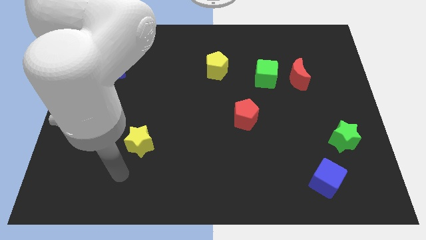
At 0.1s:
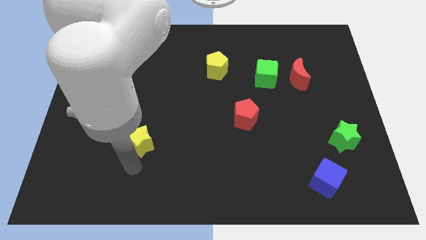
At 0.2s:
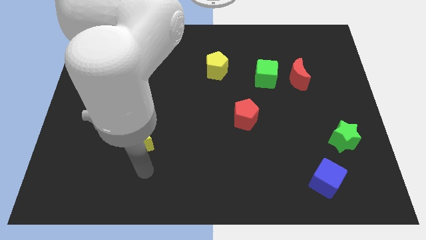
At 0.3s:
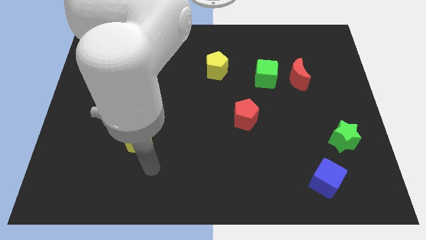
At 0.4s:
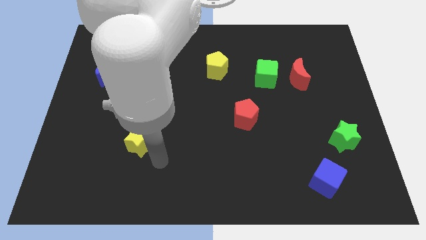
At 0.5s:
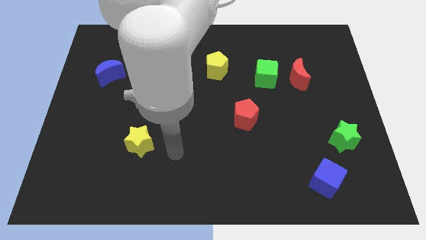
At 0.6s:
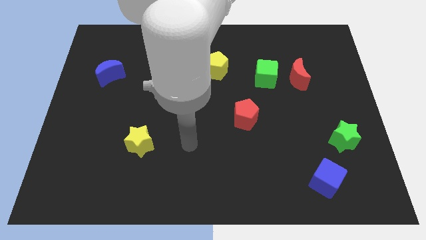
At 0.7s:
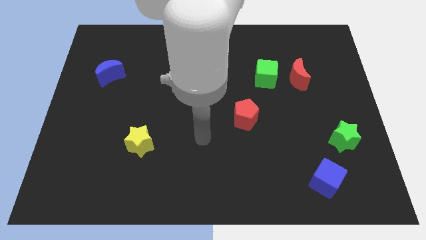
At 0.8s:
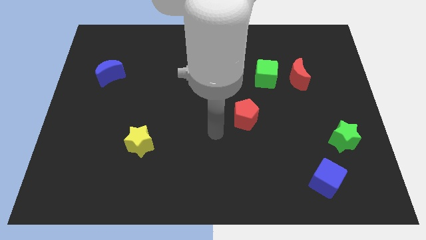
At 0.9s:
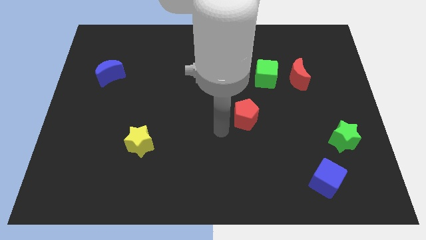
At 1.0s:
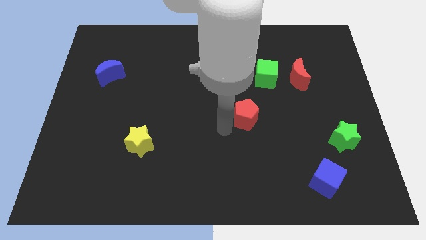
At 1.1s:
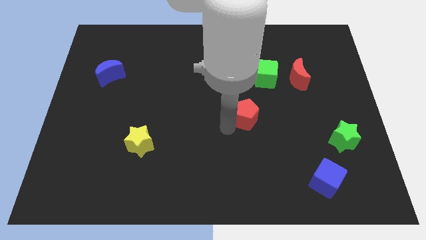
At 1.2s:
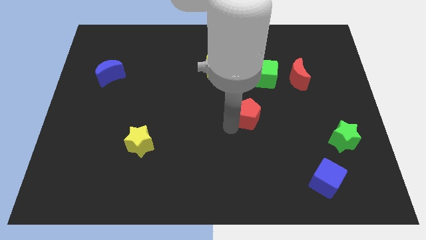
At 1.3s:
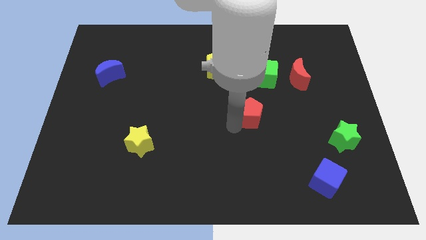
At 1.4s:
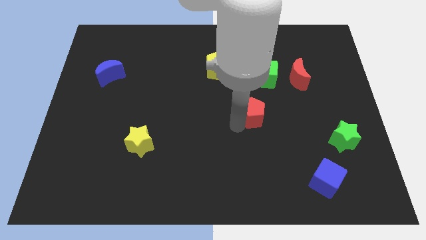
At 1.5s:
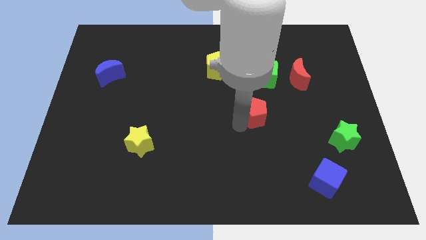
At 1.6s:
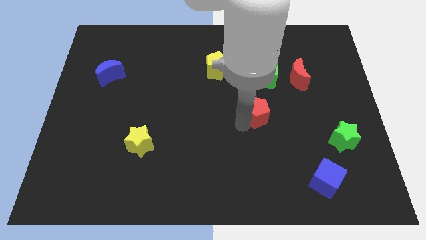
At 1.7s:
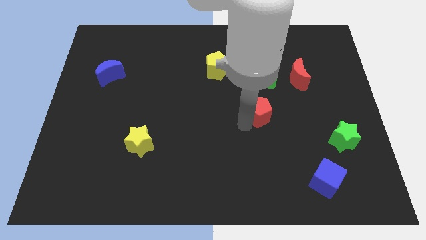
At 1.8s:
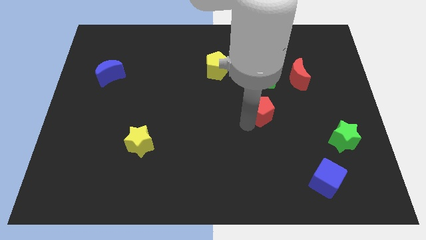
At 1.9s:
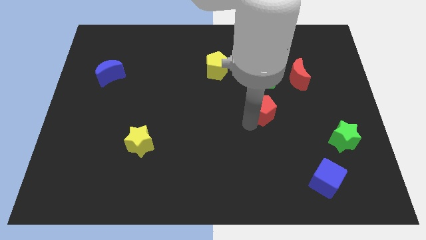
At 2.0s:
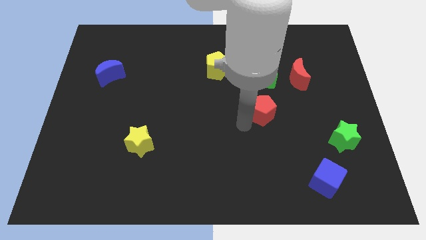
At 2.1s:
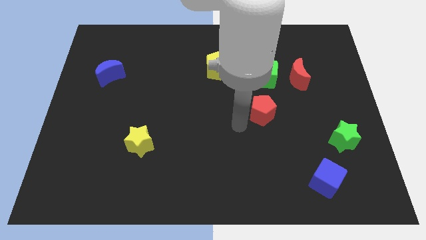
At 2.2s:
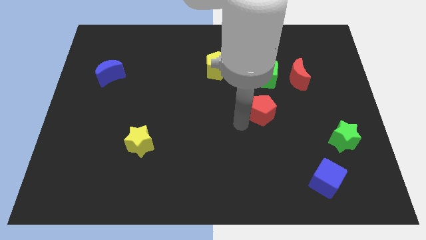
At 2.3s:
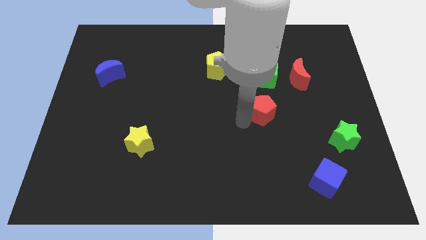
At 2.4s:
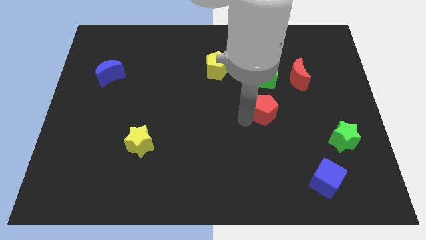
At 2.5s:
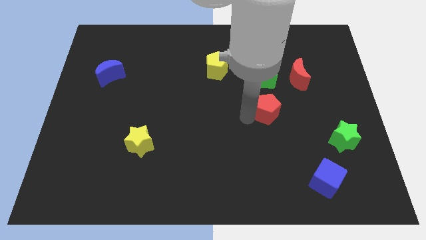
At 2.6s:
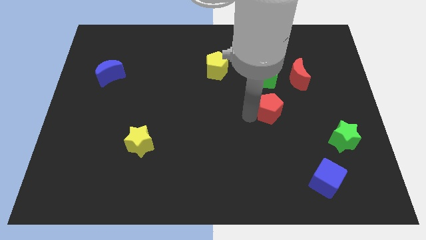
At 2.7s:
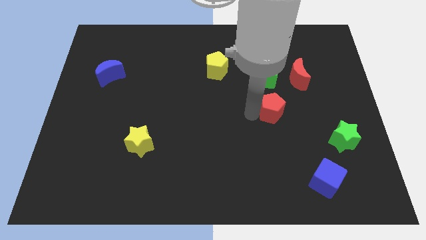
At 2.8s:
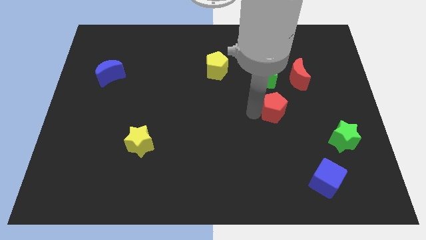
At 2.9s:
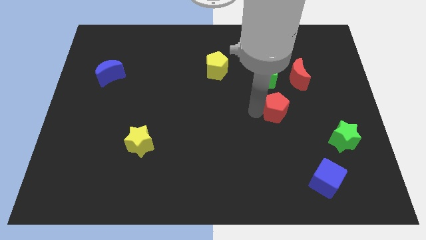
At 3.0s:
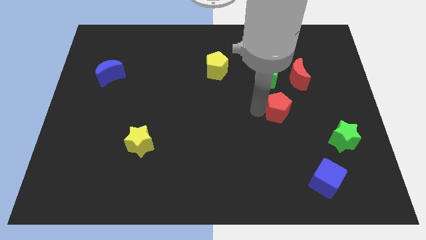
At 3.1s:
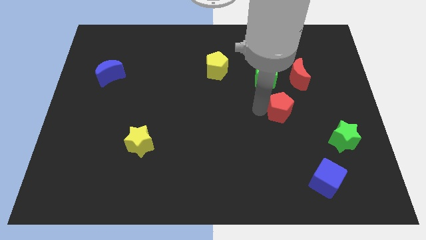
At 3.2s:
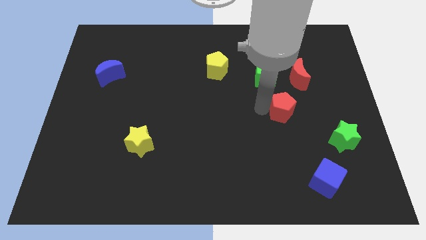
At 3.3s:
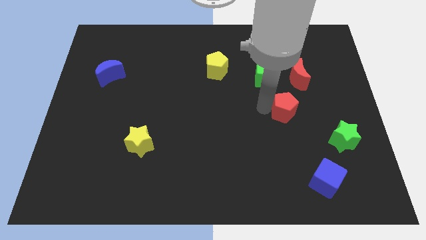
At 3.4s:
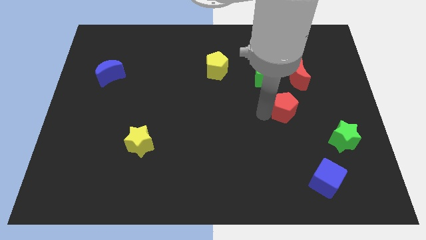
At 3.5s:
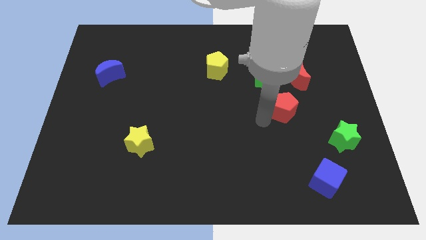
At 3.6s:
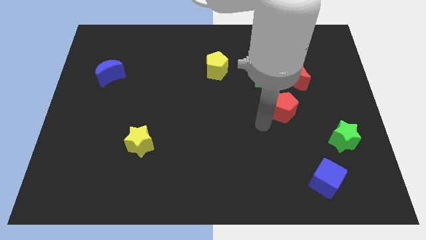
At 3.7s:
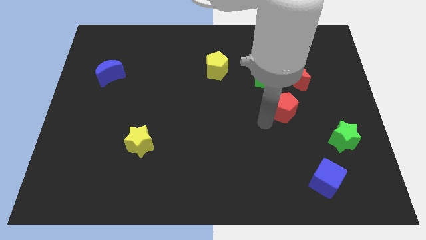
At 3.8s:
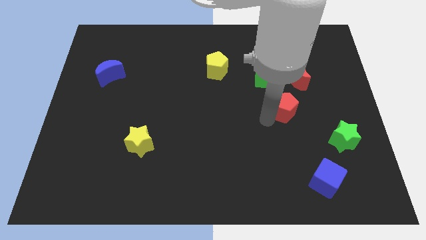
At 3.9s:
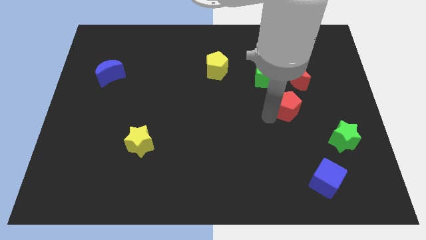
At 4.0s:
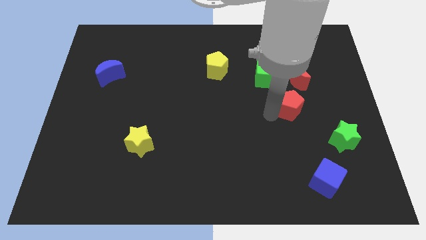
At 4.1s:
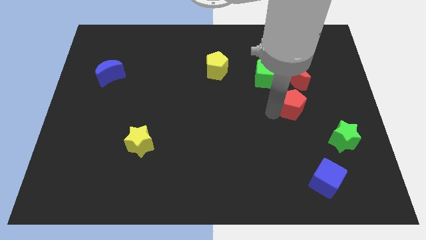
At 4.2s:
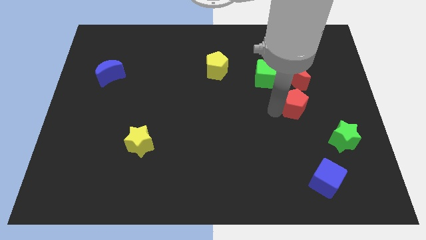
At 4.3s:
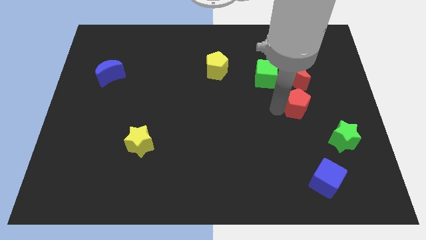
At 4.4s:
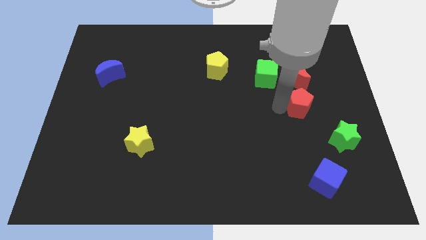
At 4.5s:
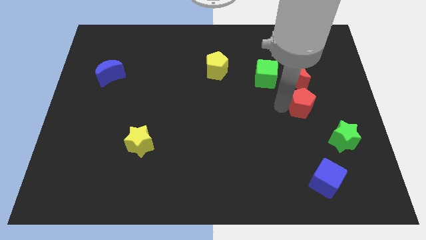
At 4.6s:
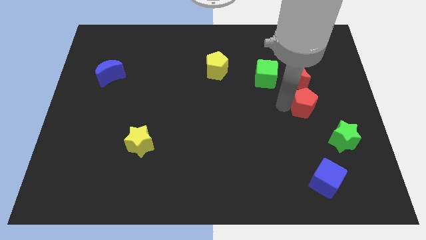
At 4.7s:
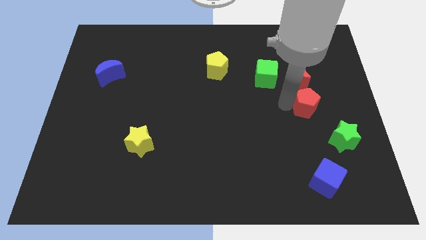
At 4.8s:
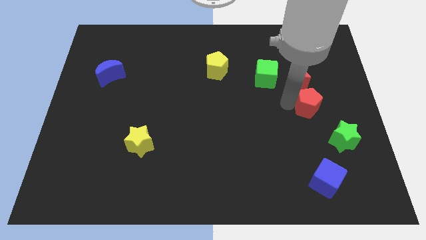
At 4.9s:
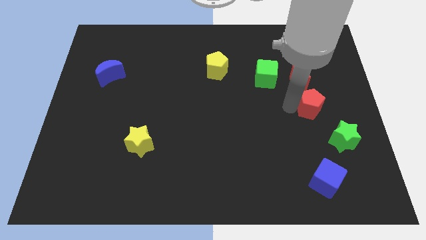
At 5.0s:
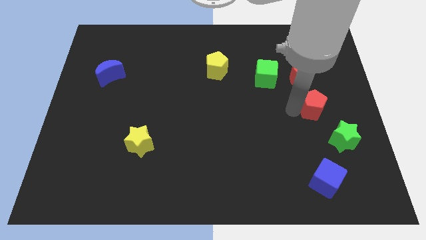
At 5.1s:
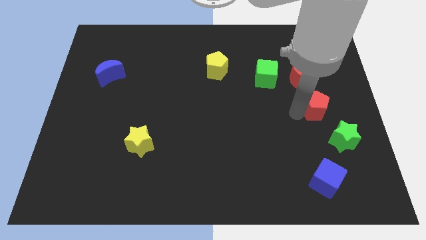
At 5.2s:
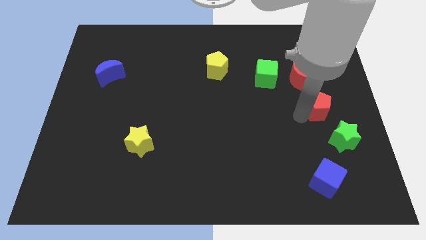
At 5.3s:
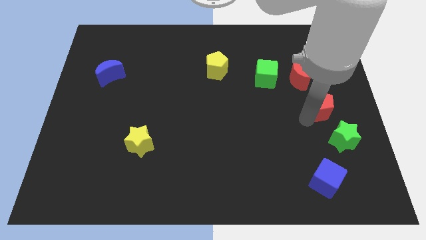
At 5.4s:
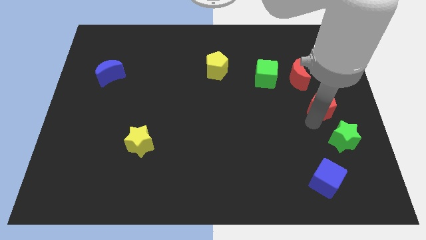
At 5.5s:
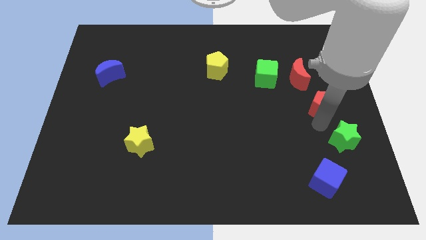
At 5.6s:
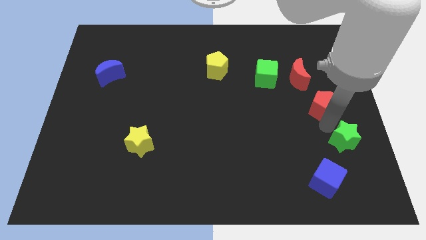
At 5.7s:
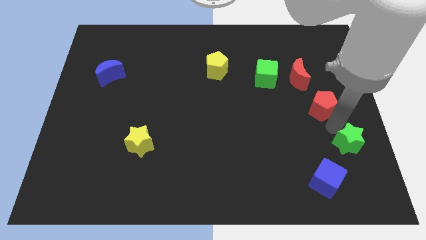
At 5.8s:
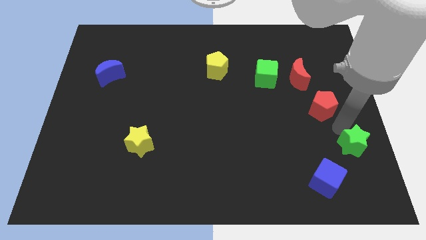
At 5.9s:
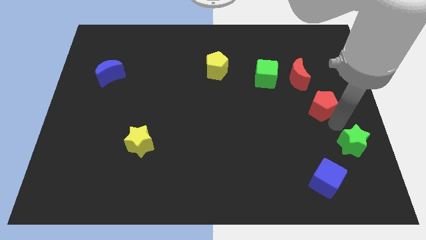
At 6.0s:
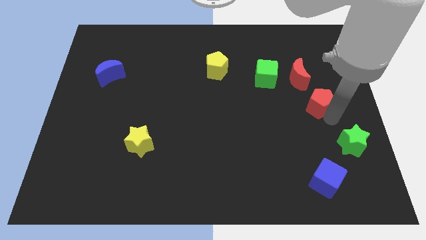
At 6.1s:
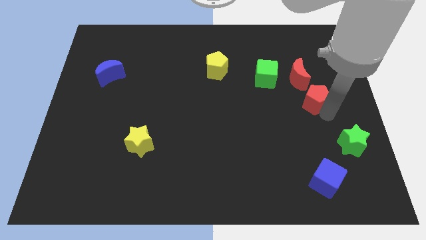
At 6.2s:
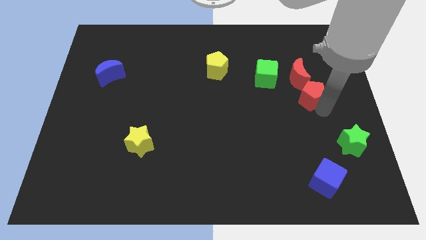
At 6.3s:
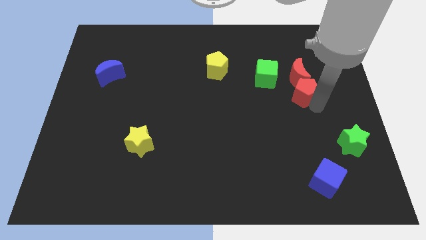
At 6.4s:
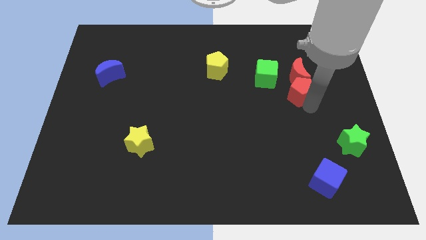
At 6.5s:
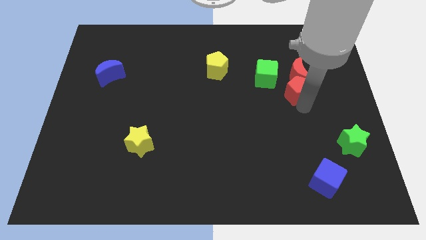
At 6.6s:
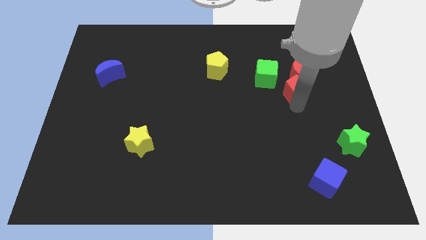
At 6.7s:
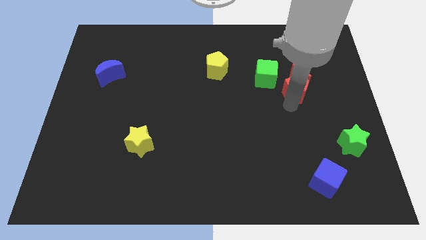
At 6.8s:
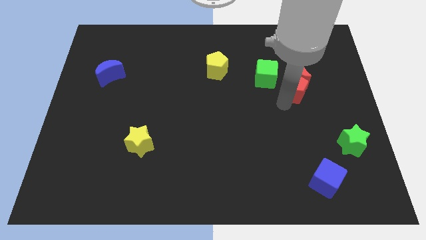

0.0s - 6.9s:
move the red pentagon just right of the green cube
